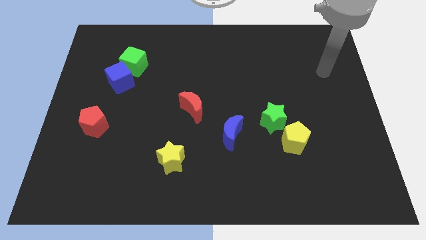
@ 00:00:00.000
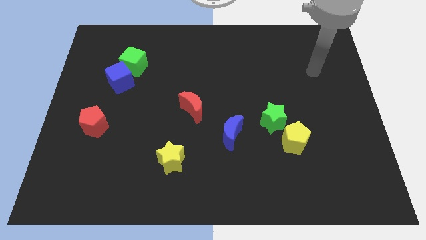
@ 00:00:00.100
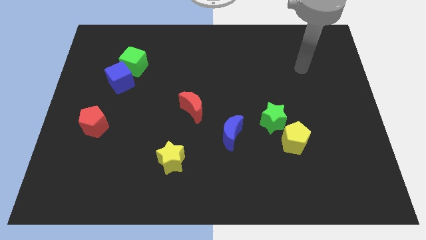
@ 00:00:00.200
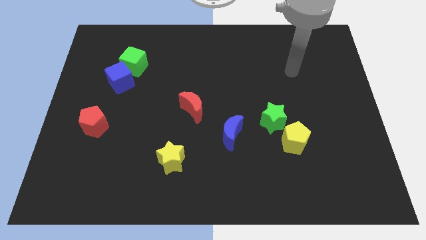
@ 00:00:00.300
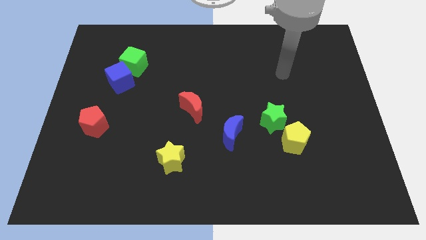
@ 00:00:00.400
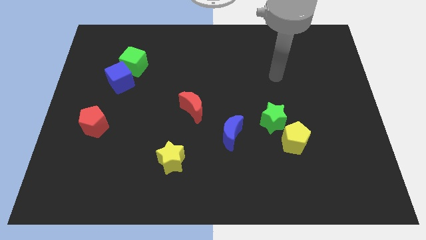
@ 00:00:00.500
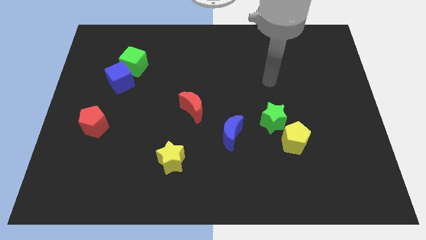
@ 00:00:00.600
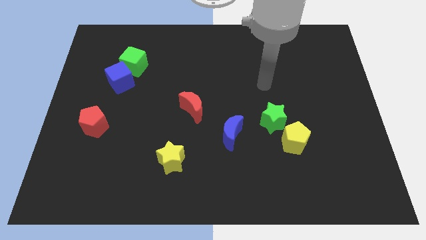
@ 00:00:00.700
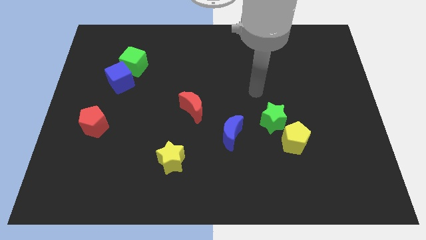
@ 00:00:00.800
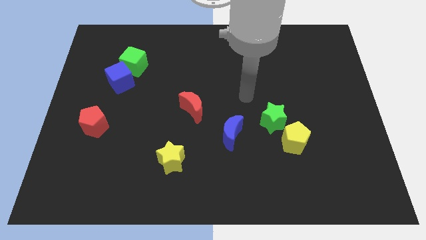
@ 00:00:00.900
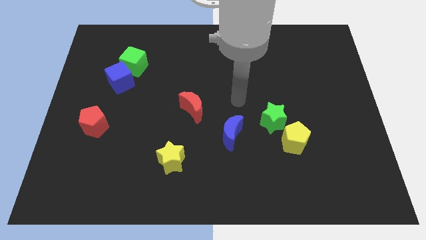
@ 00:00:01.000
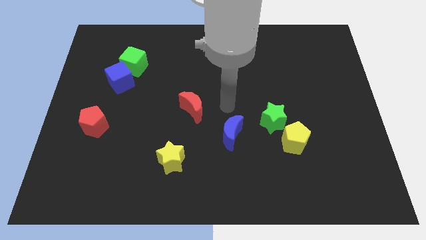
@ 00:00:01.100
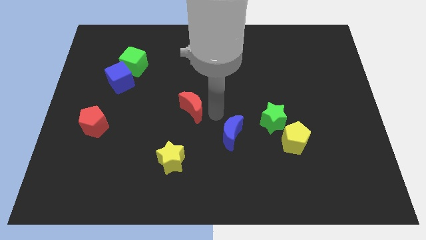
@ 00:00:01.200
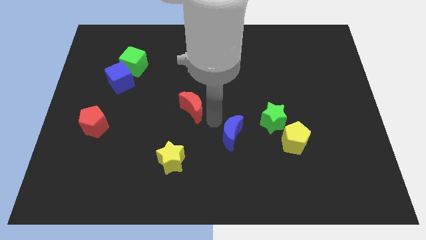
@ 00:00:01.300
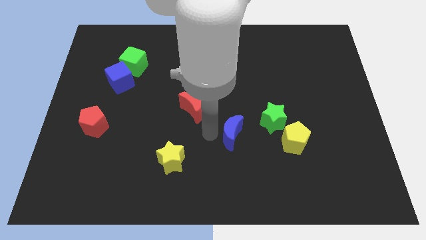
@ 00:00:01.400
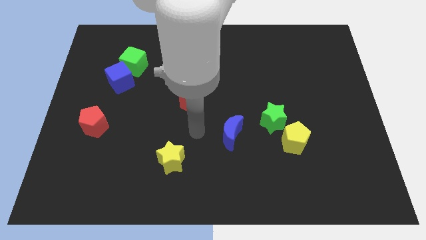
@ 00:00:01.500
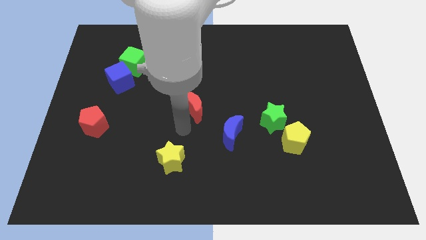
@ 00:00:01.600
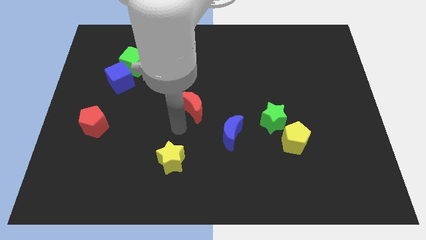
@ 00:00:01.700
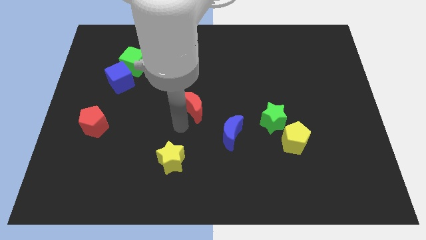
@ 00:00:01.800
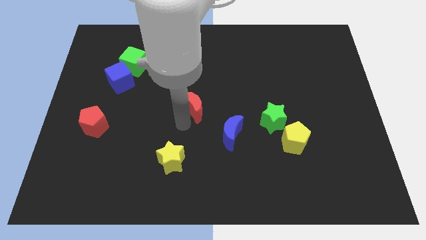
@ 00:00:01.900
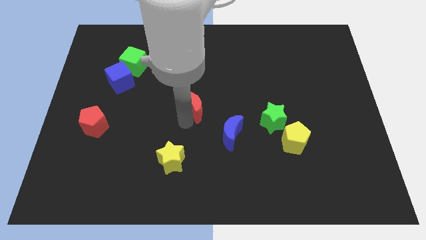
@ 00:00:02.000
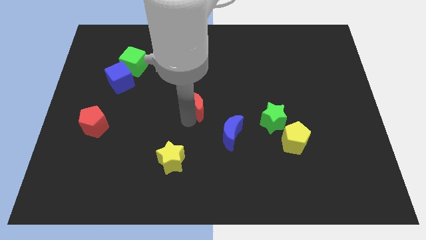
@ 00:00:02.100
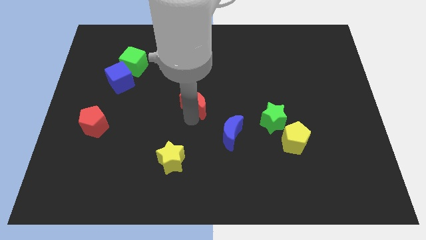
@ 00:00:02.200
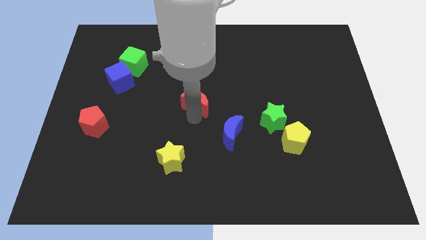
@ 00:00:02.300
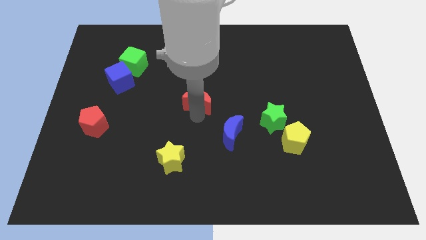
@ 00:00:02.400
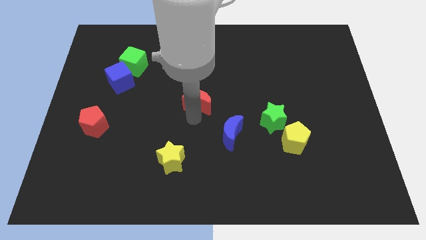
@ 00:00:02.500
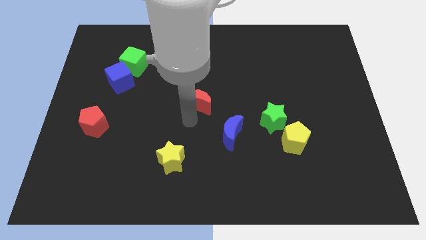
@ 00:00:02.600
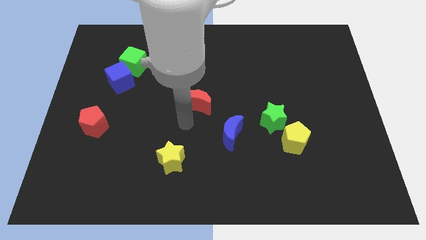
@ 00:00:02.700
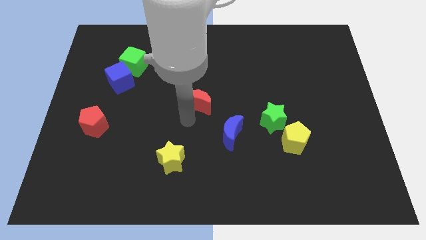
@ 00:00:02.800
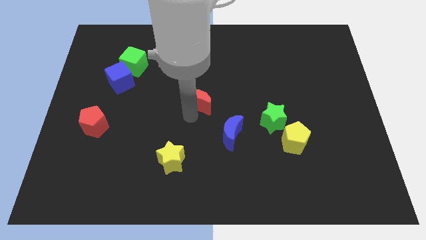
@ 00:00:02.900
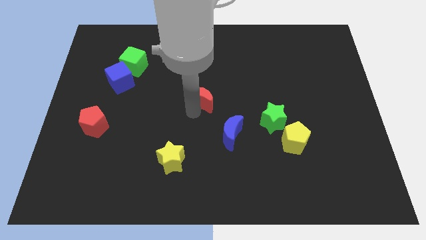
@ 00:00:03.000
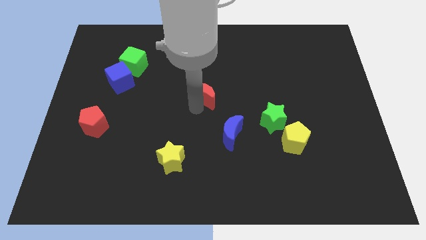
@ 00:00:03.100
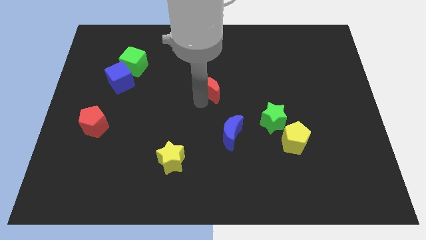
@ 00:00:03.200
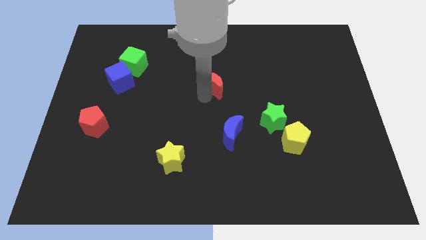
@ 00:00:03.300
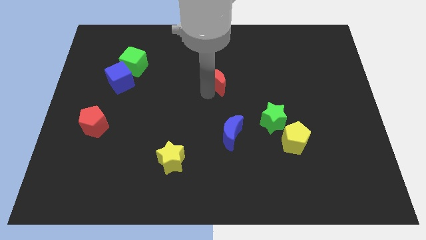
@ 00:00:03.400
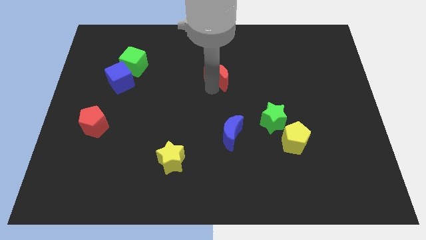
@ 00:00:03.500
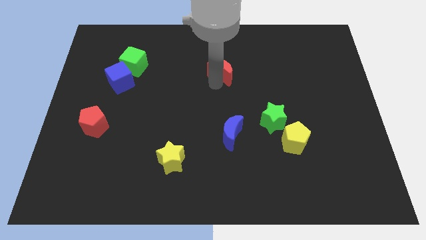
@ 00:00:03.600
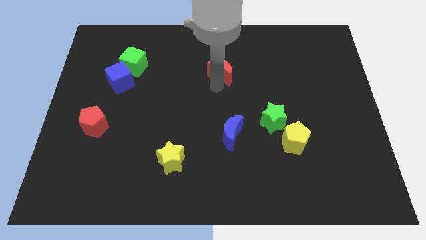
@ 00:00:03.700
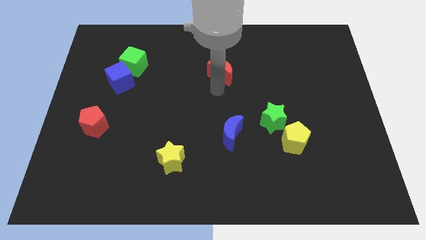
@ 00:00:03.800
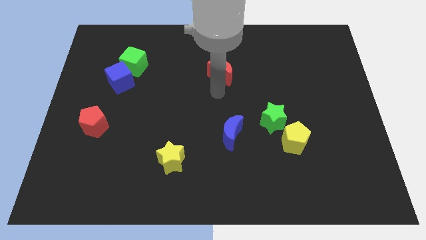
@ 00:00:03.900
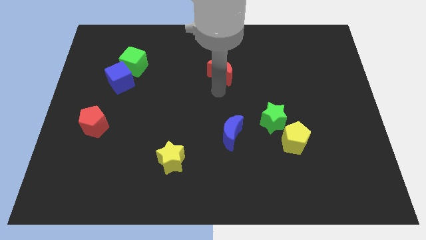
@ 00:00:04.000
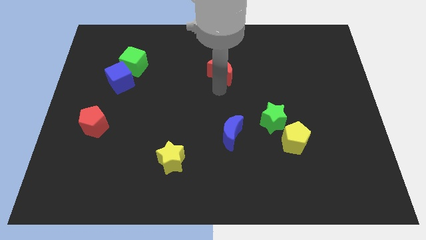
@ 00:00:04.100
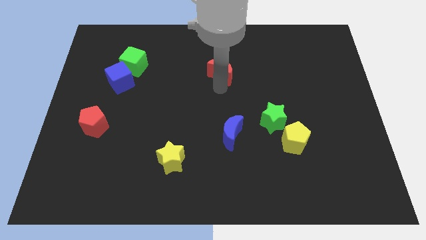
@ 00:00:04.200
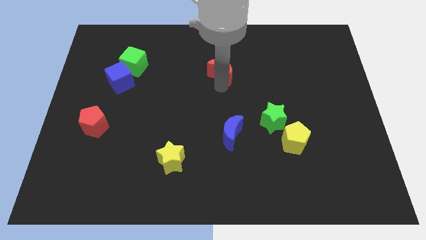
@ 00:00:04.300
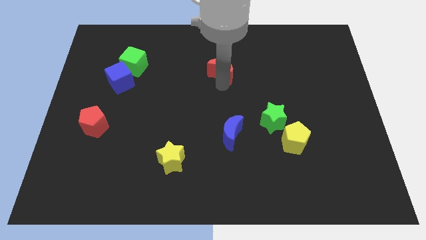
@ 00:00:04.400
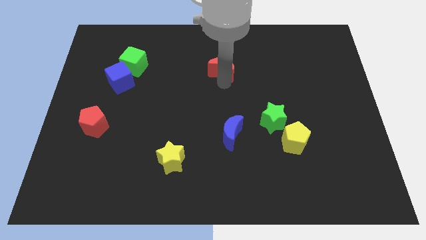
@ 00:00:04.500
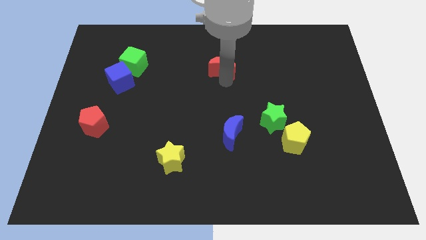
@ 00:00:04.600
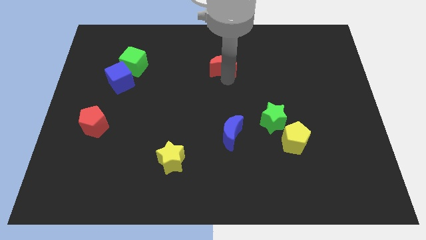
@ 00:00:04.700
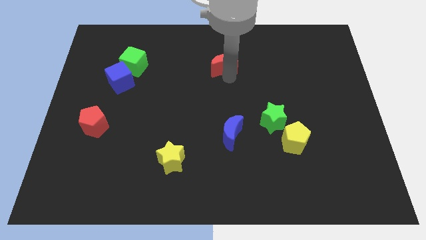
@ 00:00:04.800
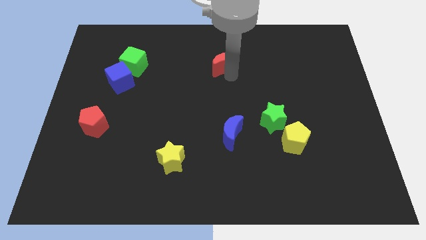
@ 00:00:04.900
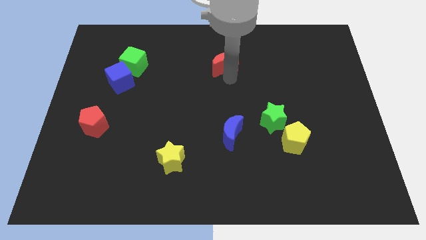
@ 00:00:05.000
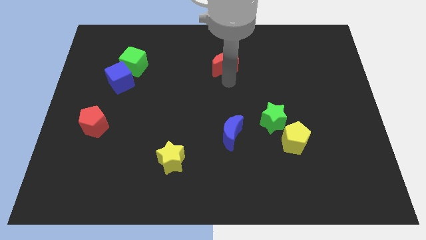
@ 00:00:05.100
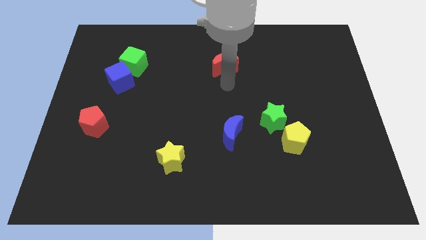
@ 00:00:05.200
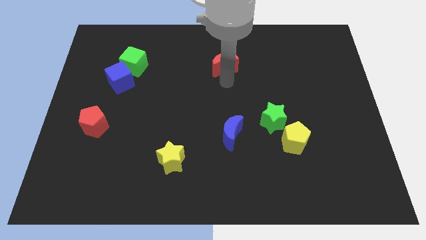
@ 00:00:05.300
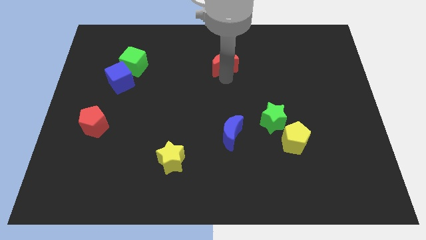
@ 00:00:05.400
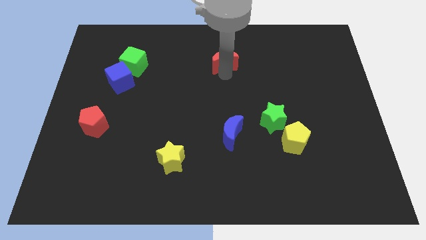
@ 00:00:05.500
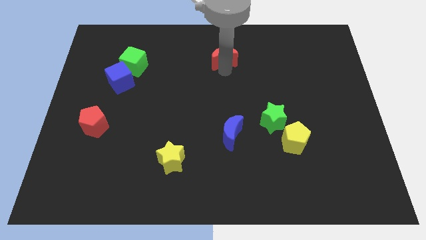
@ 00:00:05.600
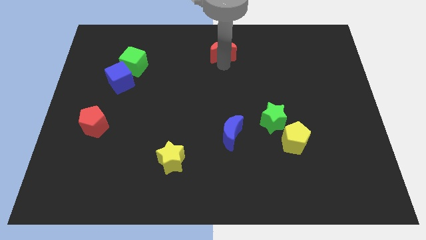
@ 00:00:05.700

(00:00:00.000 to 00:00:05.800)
put the red moon to the top
